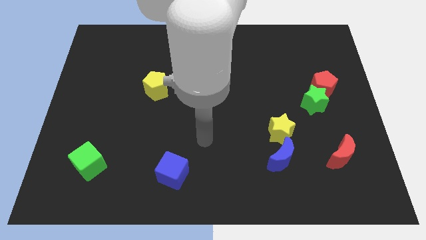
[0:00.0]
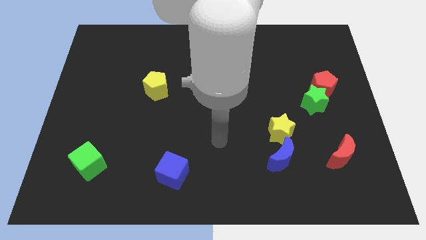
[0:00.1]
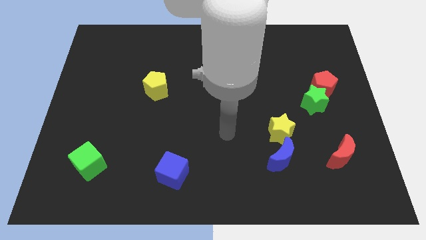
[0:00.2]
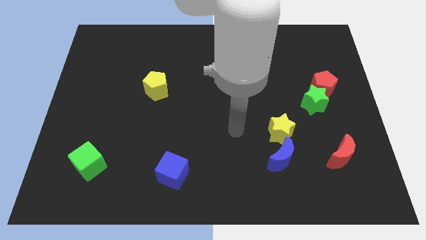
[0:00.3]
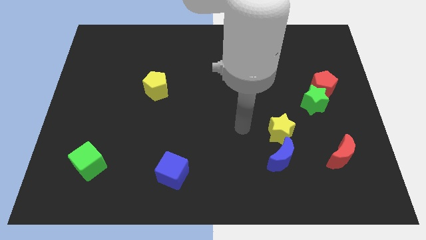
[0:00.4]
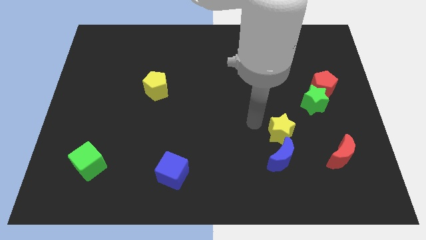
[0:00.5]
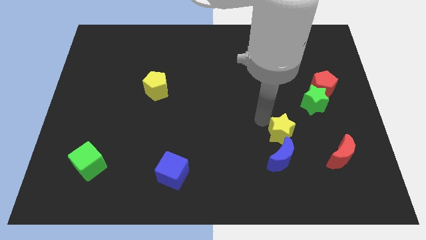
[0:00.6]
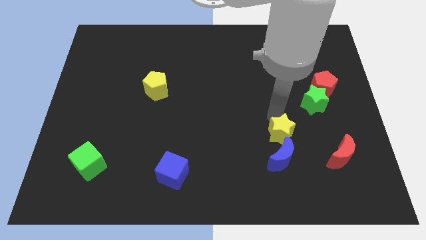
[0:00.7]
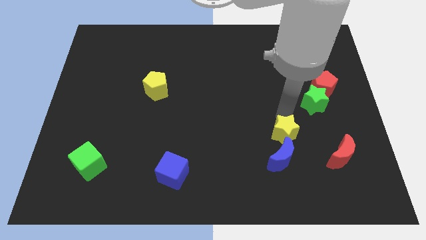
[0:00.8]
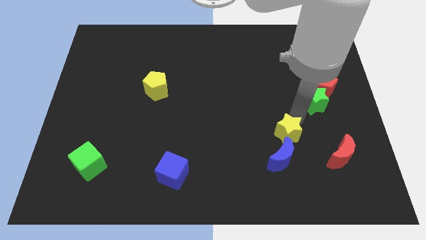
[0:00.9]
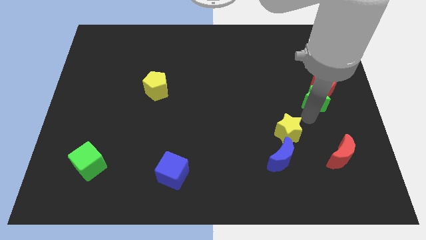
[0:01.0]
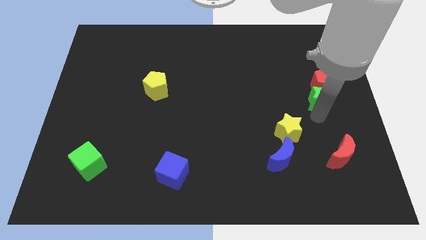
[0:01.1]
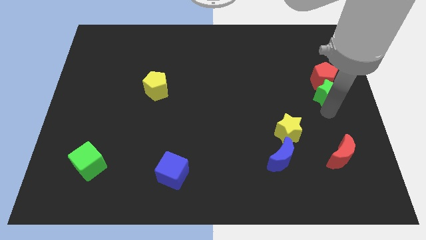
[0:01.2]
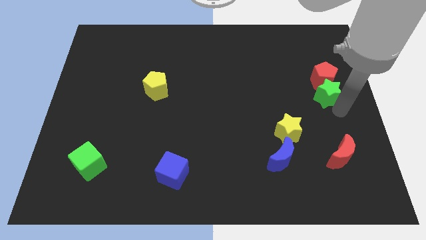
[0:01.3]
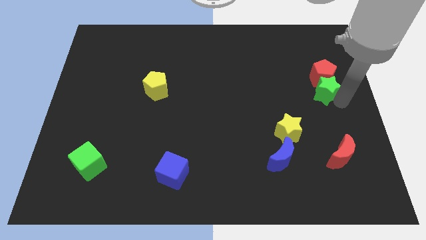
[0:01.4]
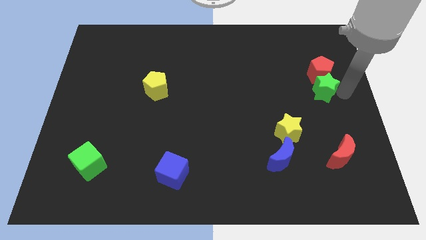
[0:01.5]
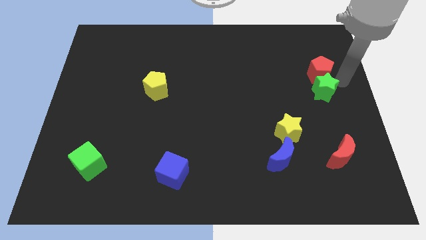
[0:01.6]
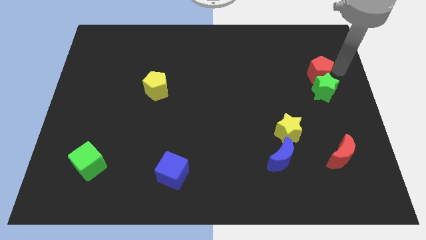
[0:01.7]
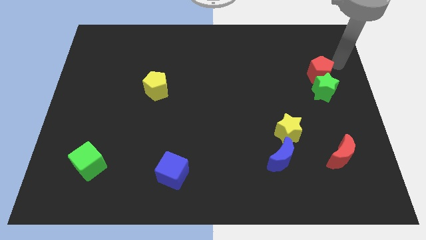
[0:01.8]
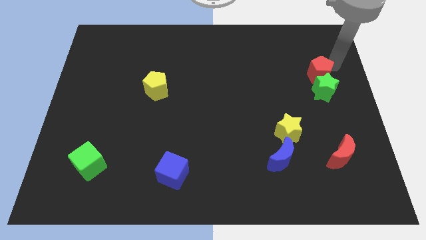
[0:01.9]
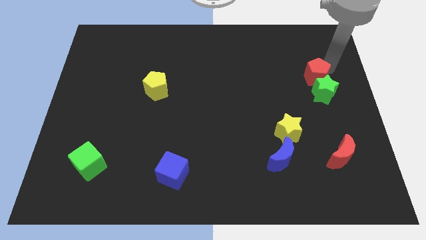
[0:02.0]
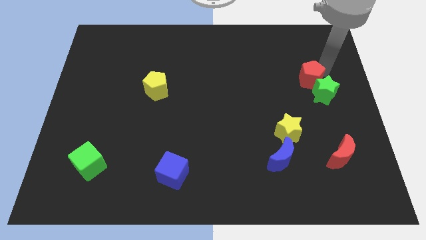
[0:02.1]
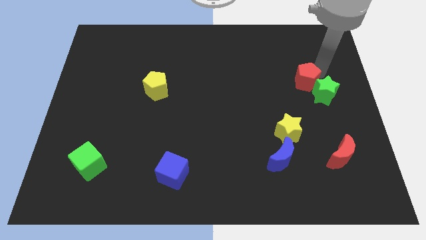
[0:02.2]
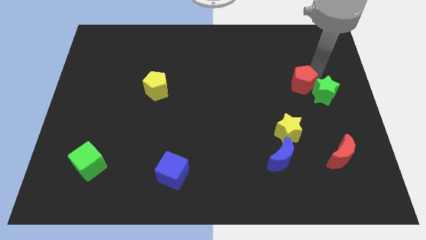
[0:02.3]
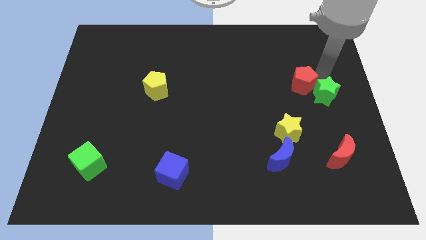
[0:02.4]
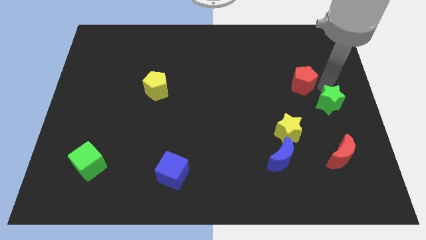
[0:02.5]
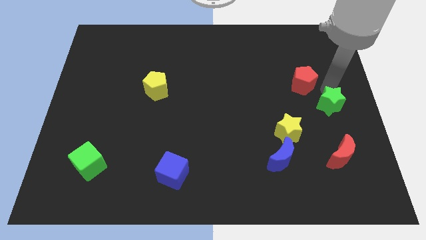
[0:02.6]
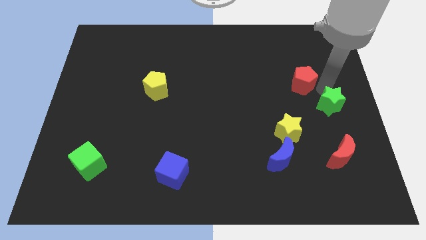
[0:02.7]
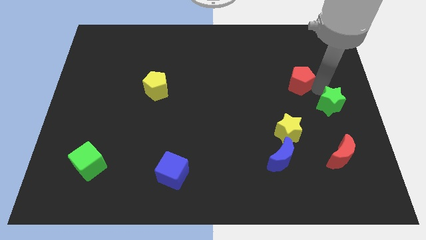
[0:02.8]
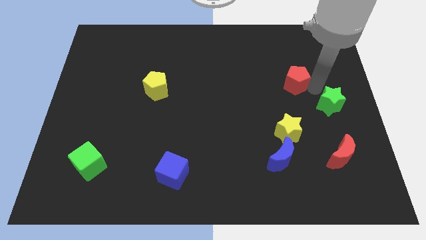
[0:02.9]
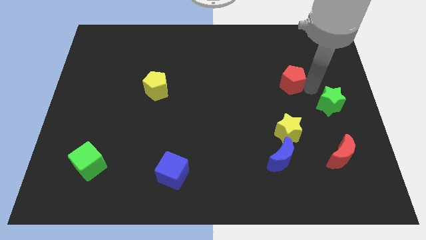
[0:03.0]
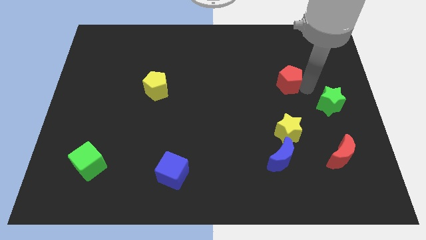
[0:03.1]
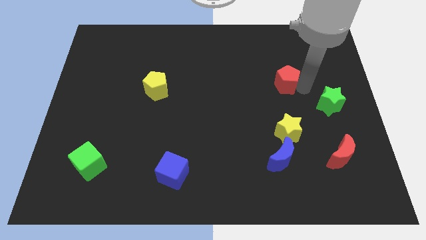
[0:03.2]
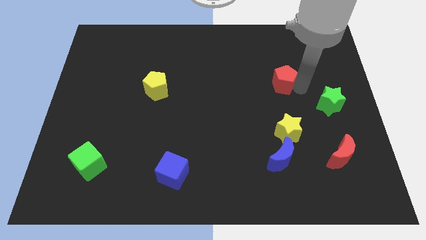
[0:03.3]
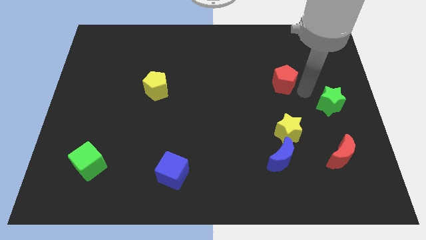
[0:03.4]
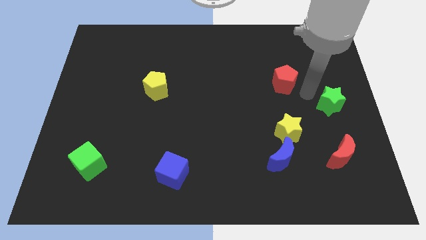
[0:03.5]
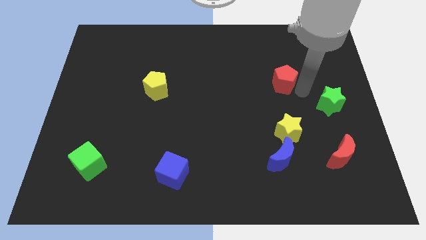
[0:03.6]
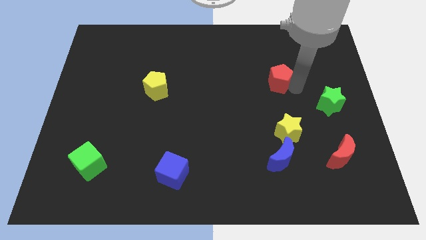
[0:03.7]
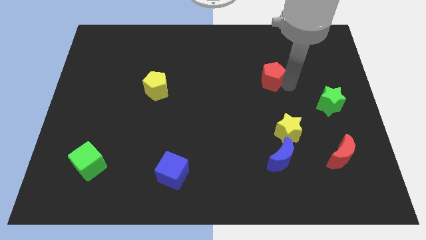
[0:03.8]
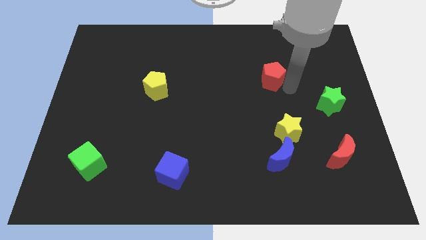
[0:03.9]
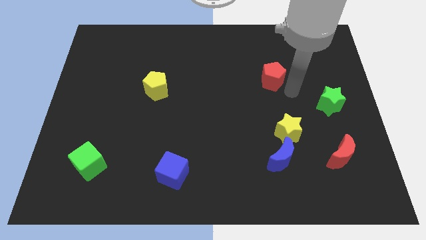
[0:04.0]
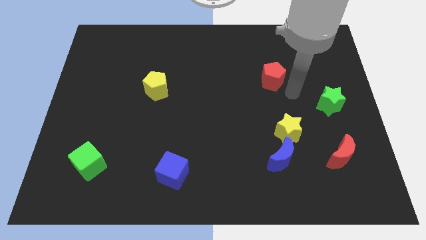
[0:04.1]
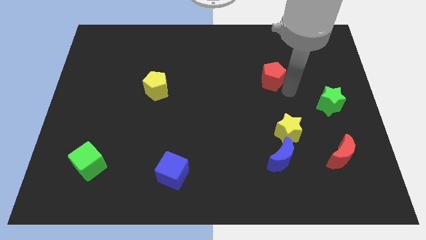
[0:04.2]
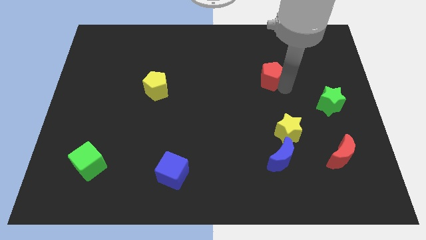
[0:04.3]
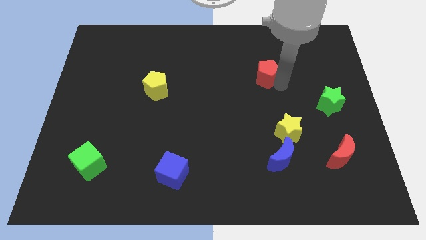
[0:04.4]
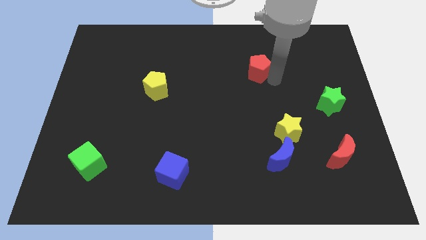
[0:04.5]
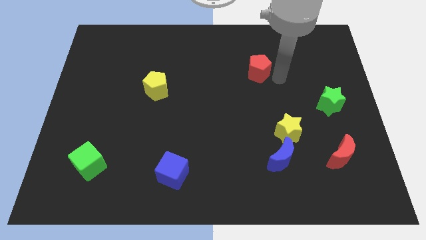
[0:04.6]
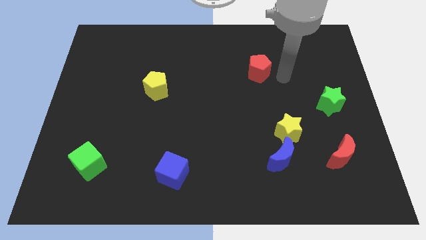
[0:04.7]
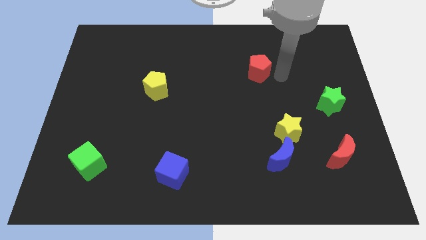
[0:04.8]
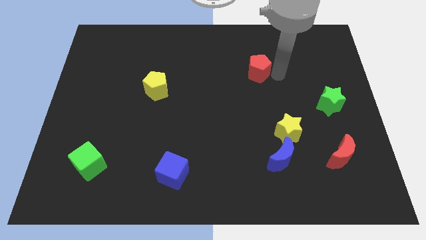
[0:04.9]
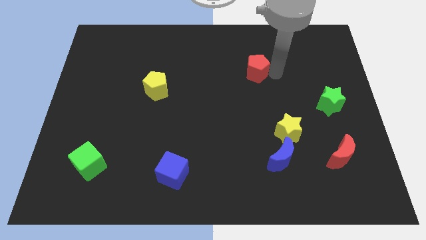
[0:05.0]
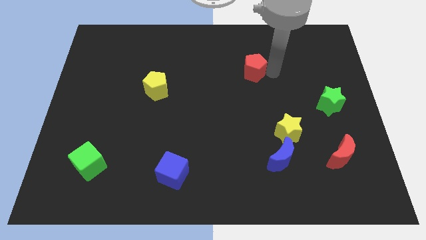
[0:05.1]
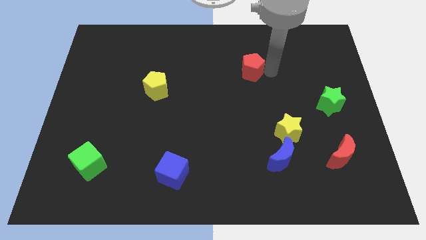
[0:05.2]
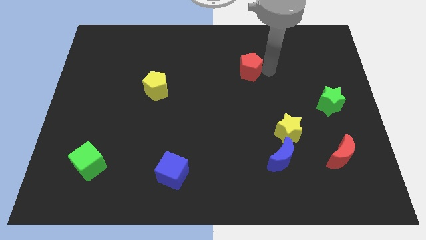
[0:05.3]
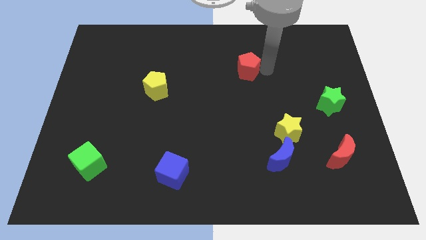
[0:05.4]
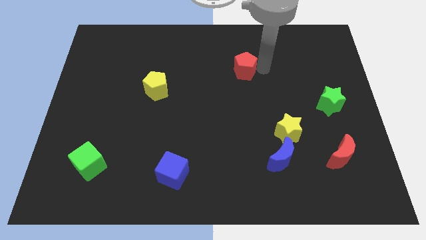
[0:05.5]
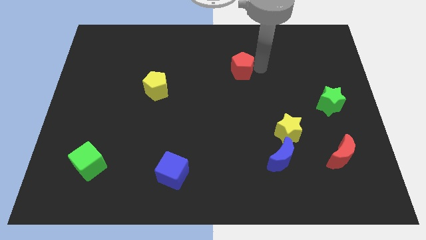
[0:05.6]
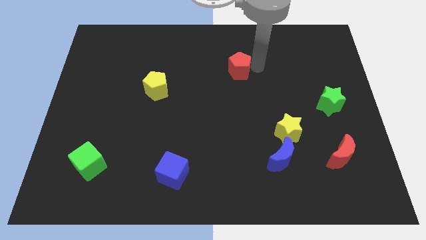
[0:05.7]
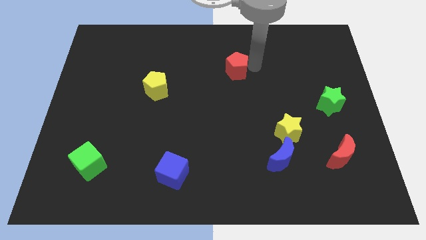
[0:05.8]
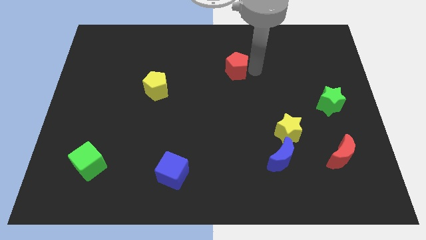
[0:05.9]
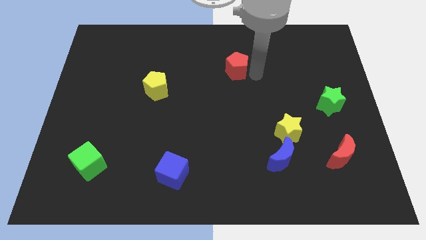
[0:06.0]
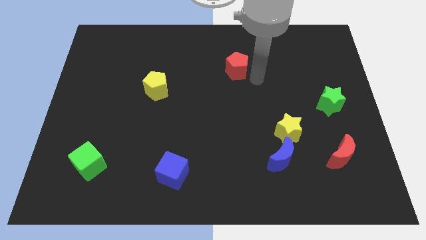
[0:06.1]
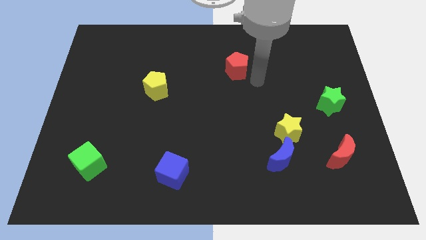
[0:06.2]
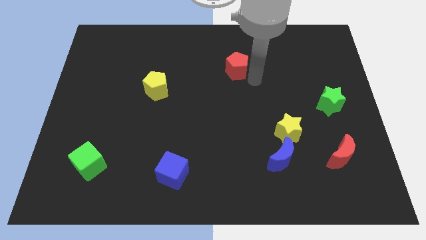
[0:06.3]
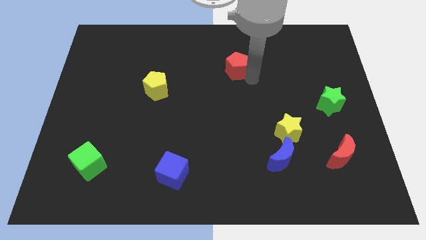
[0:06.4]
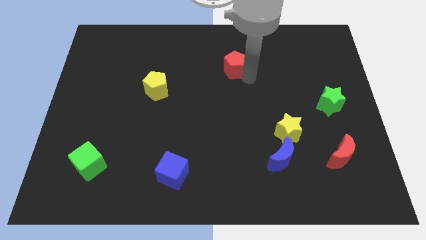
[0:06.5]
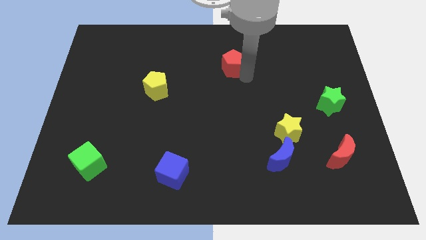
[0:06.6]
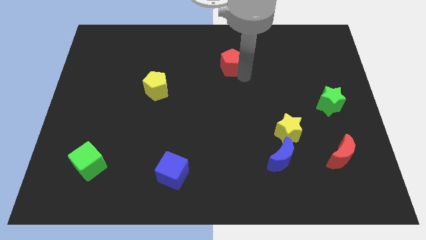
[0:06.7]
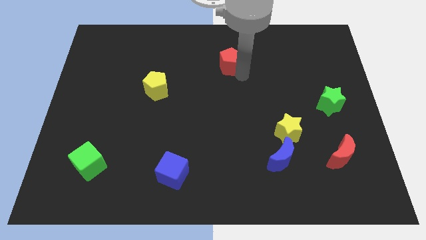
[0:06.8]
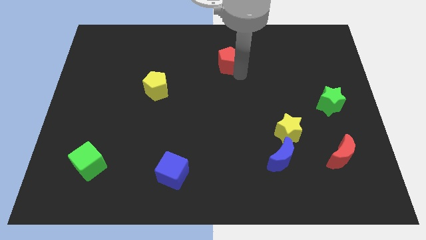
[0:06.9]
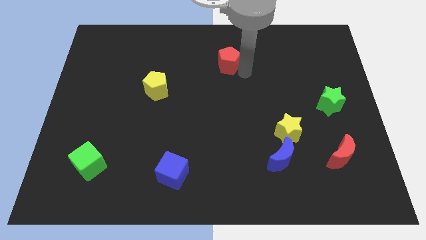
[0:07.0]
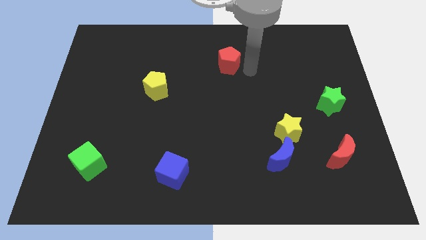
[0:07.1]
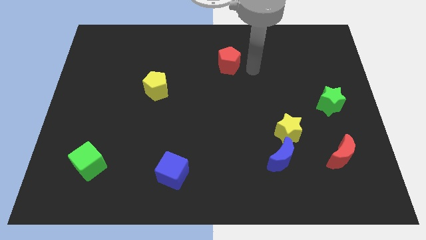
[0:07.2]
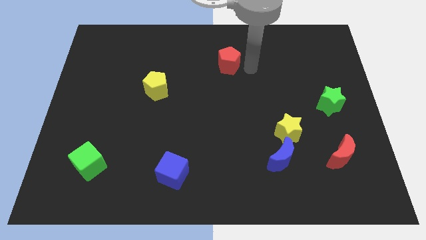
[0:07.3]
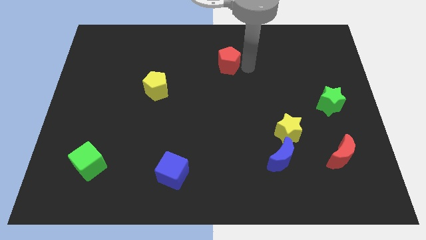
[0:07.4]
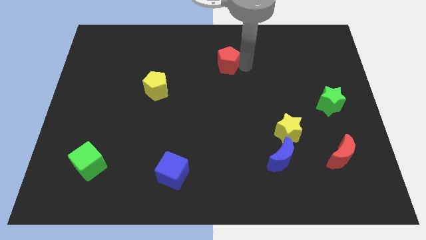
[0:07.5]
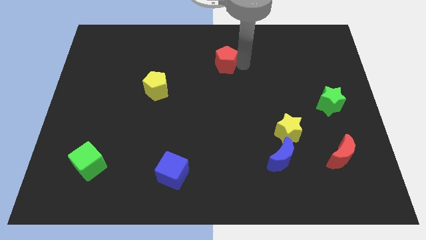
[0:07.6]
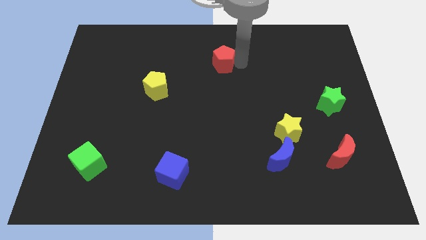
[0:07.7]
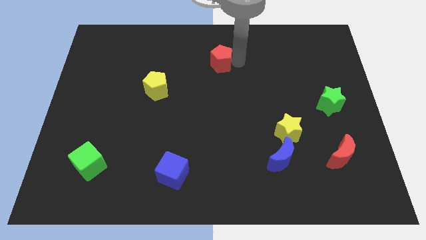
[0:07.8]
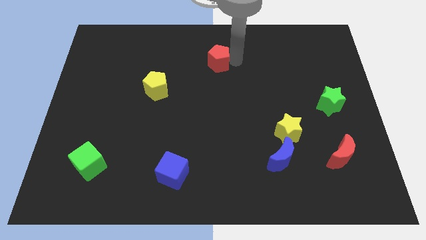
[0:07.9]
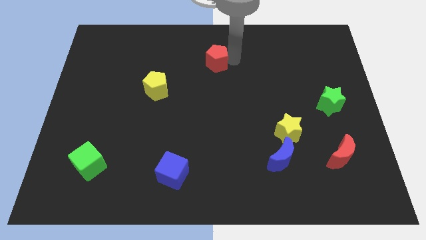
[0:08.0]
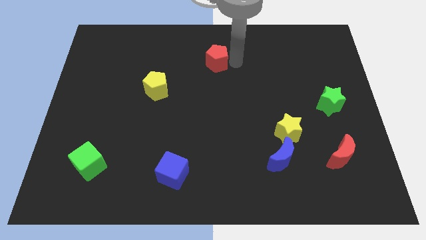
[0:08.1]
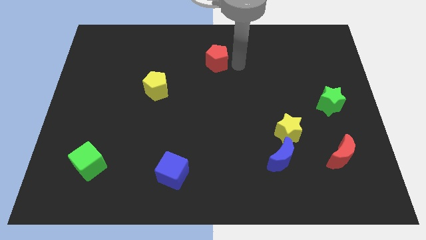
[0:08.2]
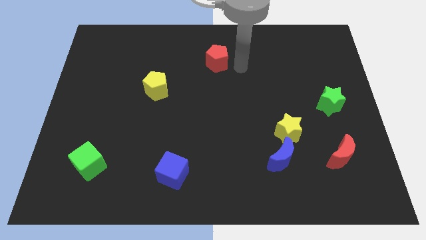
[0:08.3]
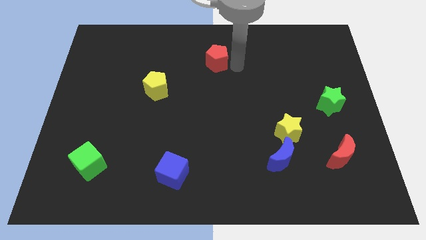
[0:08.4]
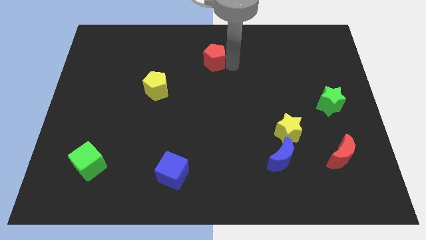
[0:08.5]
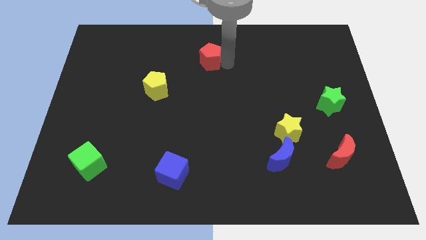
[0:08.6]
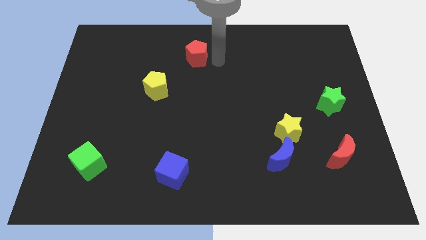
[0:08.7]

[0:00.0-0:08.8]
put the red pentagon to the towards your base
